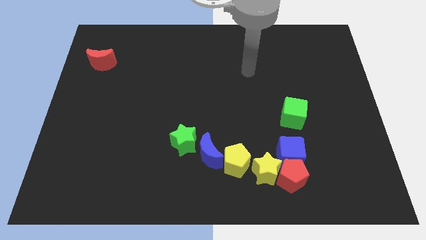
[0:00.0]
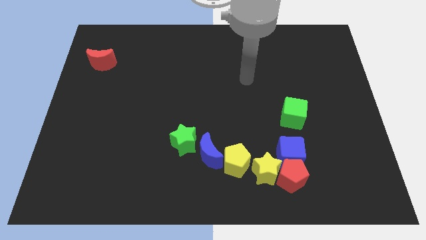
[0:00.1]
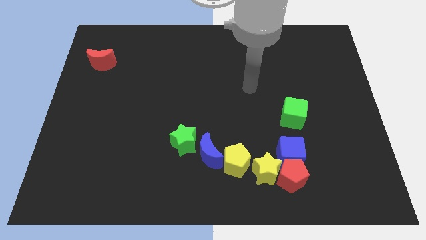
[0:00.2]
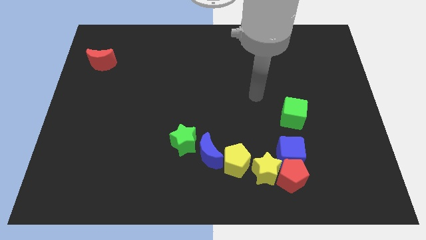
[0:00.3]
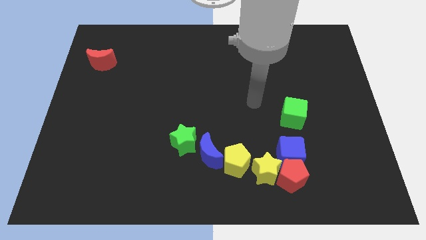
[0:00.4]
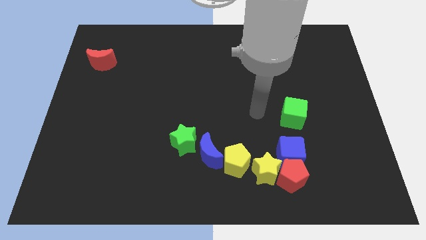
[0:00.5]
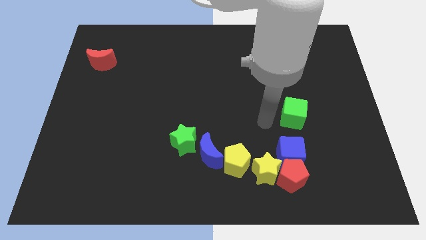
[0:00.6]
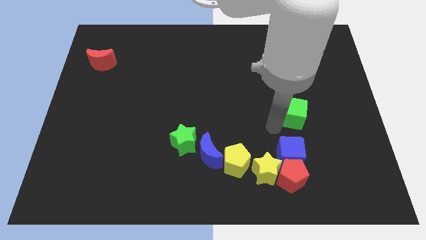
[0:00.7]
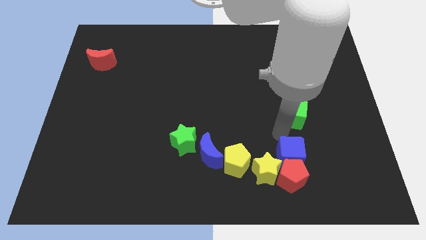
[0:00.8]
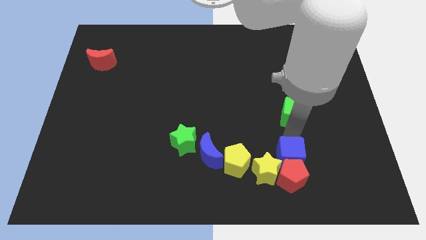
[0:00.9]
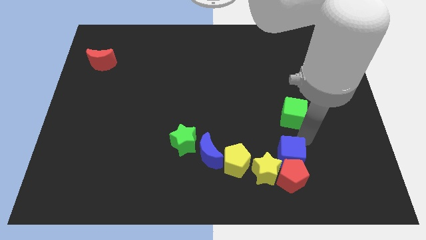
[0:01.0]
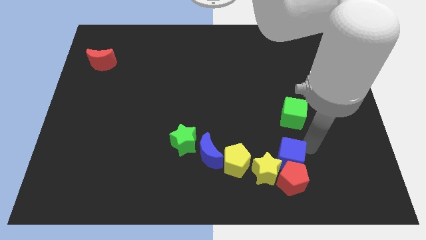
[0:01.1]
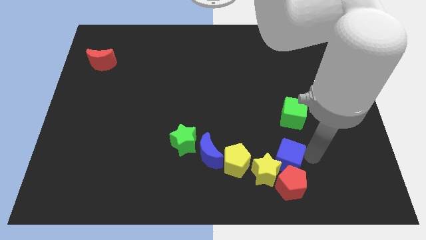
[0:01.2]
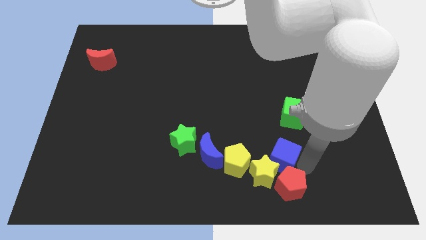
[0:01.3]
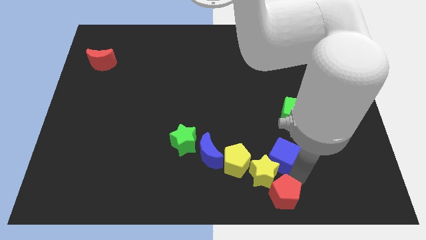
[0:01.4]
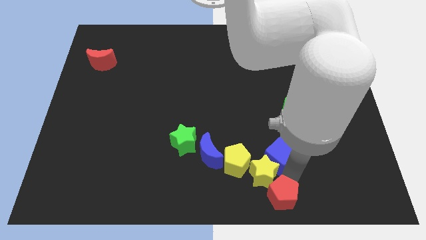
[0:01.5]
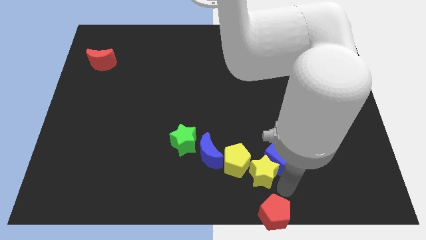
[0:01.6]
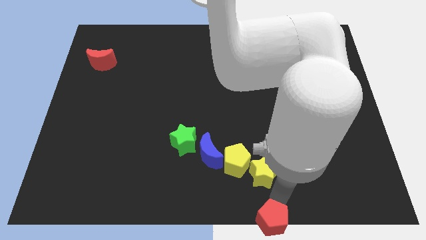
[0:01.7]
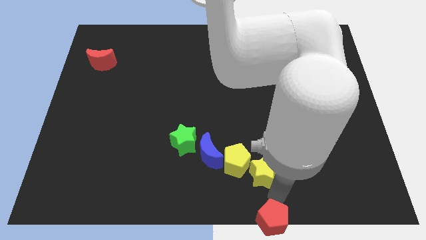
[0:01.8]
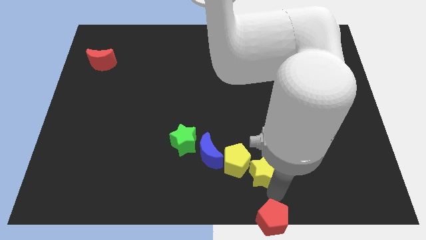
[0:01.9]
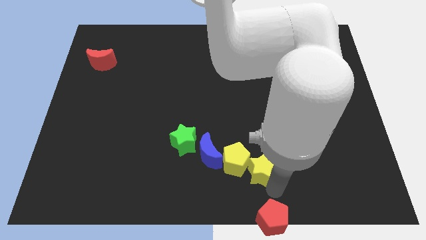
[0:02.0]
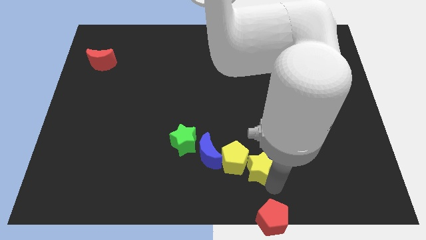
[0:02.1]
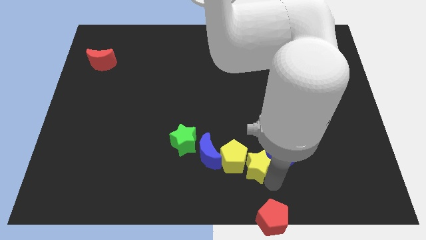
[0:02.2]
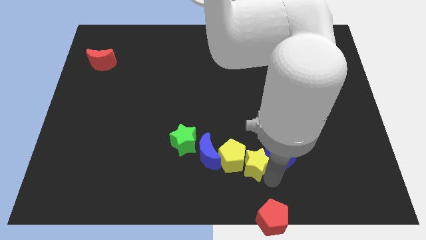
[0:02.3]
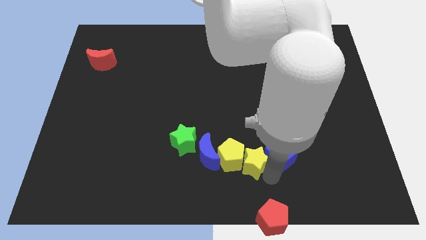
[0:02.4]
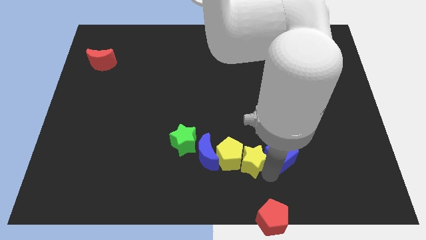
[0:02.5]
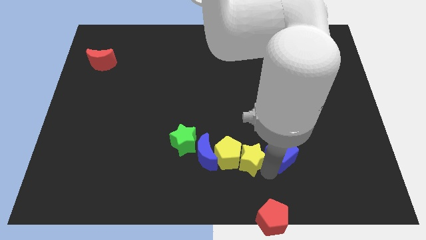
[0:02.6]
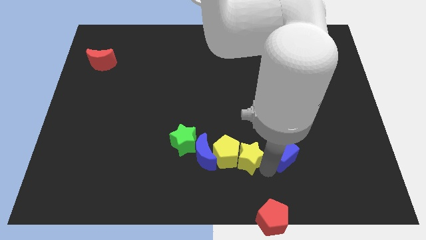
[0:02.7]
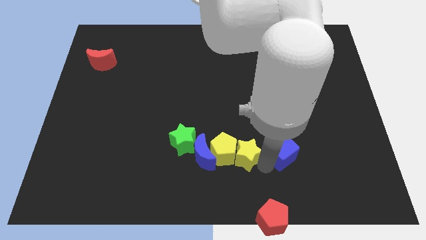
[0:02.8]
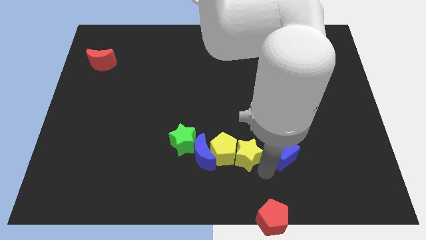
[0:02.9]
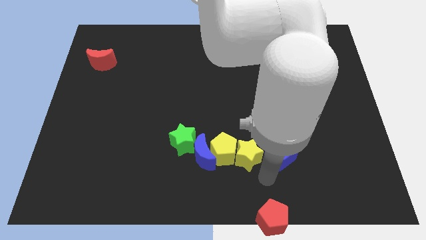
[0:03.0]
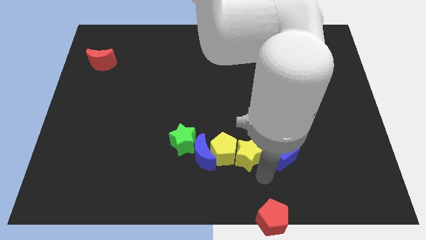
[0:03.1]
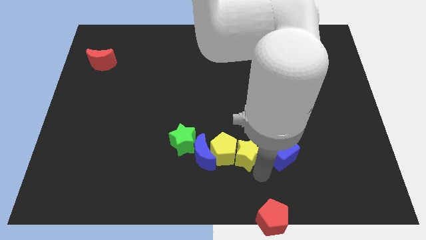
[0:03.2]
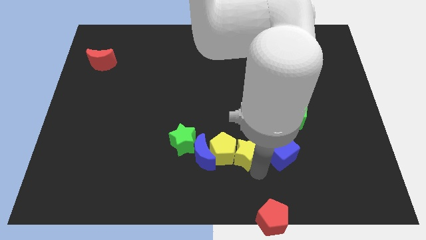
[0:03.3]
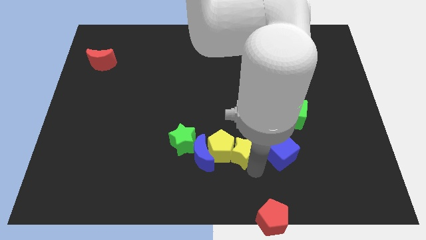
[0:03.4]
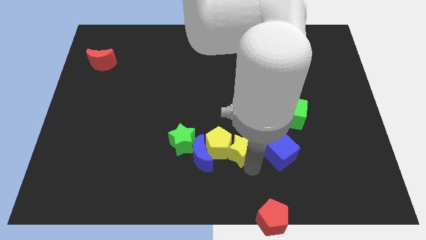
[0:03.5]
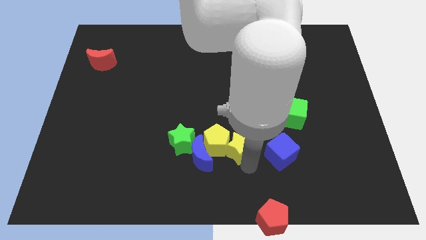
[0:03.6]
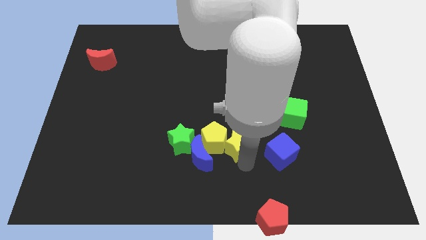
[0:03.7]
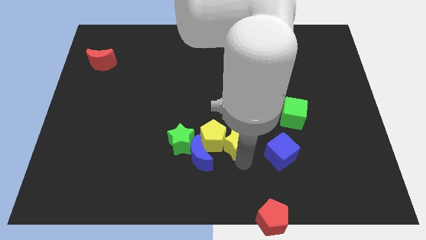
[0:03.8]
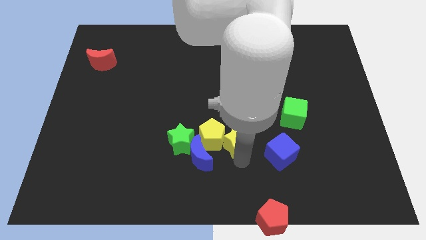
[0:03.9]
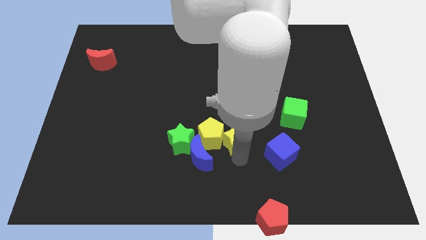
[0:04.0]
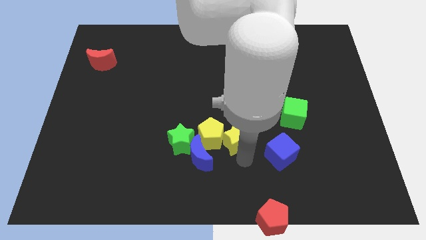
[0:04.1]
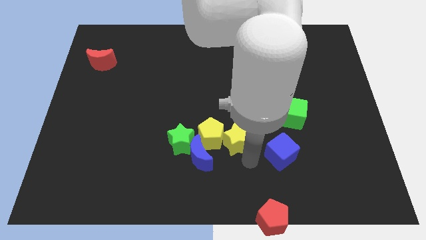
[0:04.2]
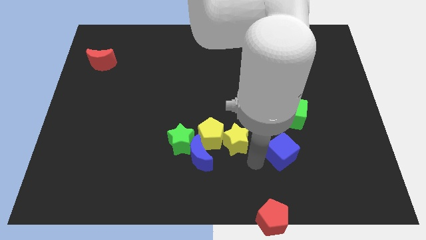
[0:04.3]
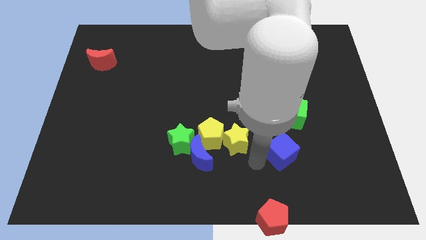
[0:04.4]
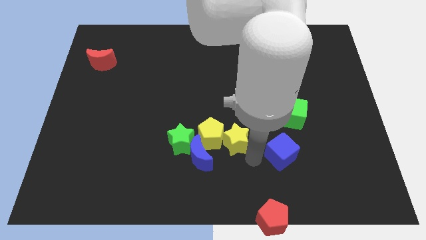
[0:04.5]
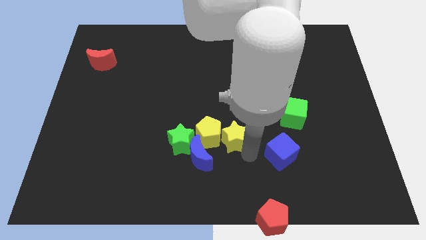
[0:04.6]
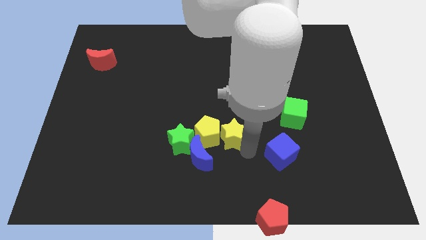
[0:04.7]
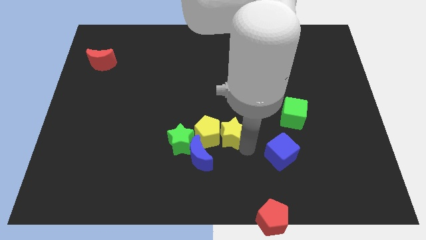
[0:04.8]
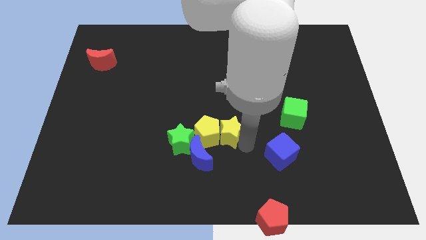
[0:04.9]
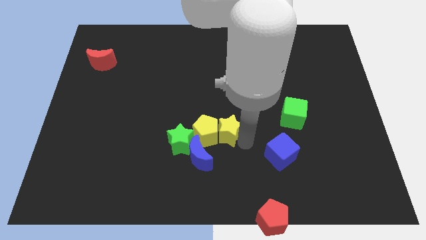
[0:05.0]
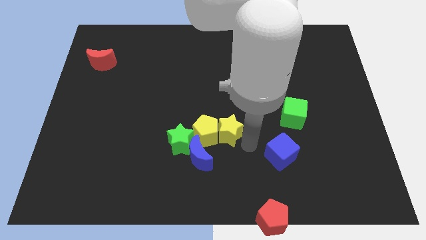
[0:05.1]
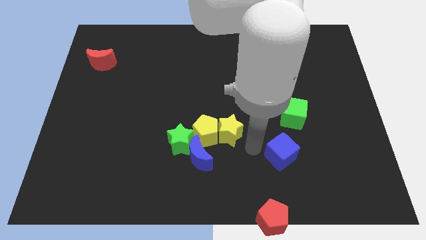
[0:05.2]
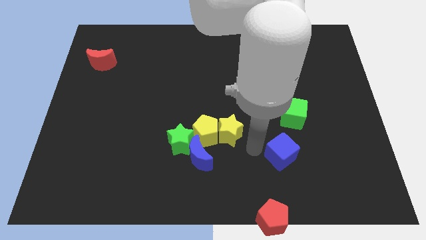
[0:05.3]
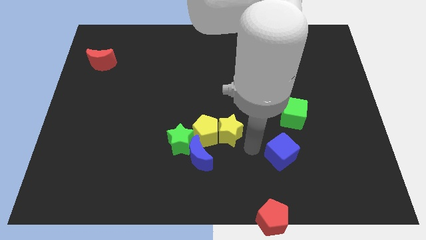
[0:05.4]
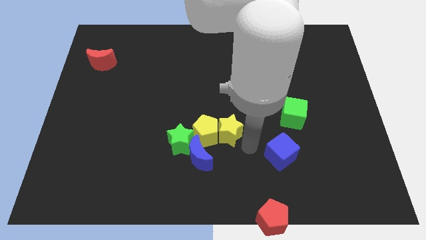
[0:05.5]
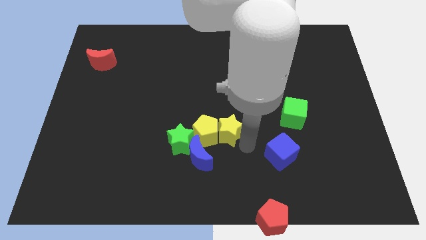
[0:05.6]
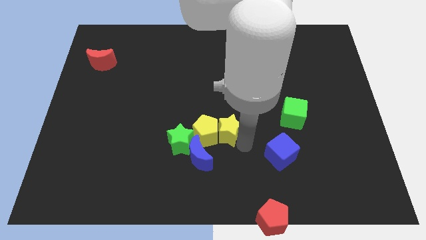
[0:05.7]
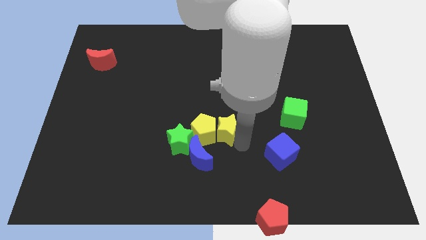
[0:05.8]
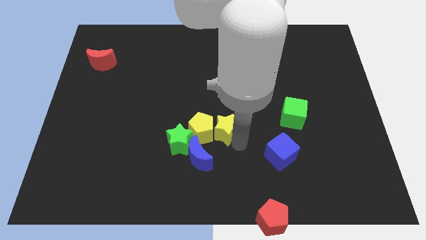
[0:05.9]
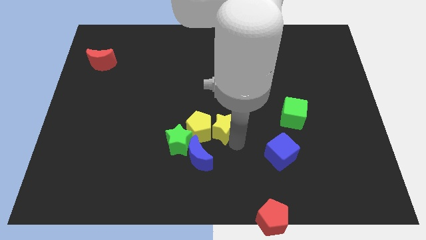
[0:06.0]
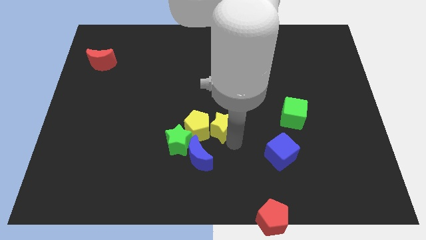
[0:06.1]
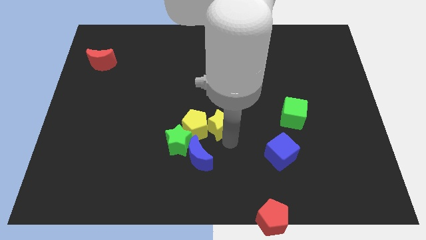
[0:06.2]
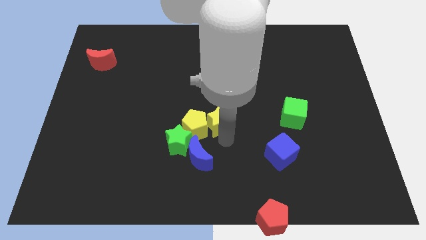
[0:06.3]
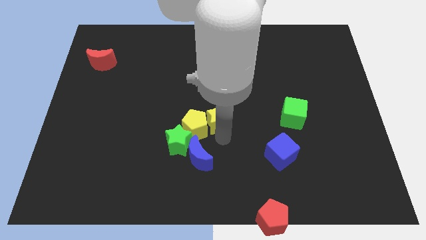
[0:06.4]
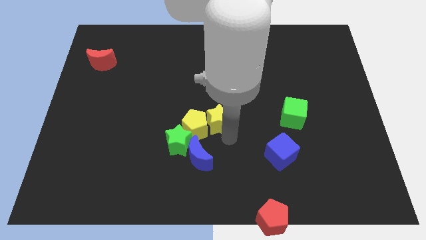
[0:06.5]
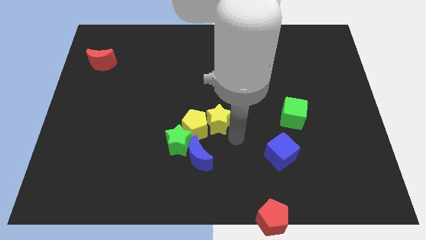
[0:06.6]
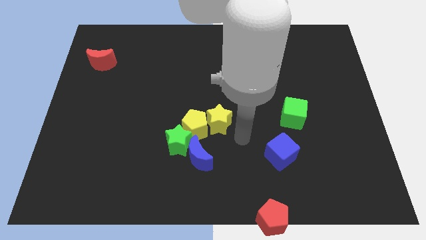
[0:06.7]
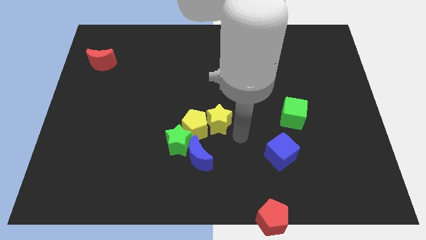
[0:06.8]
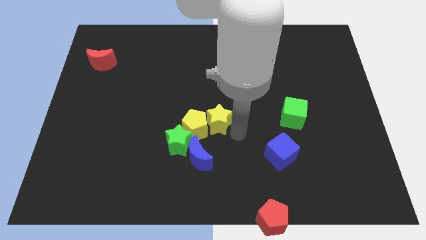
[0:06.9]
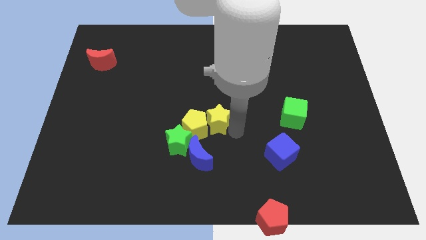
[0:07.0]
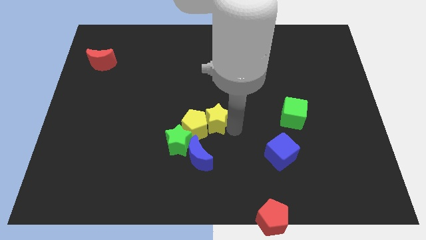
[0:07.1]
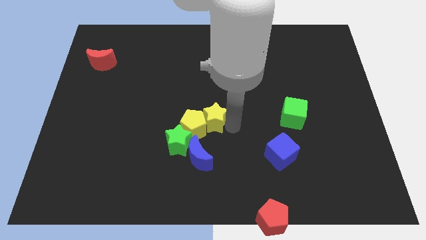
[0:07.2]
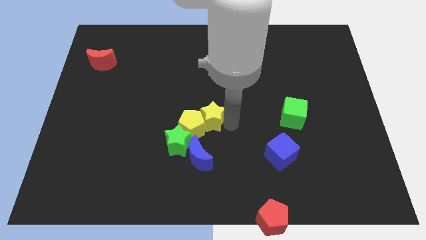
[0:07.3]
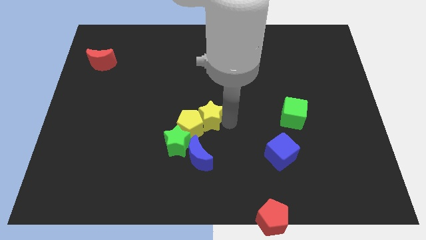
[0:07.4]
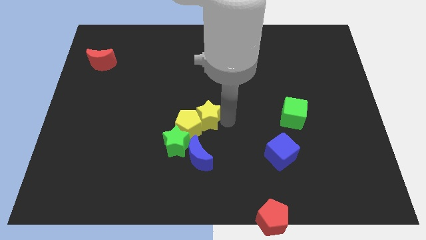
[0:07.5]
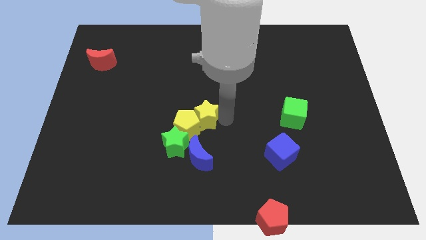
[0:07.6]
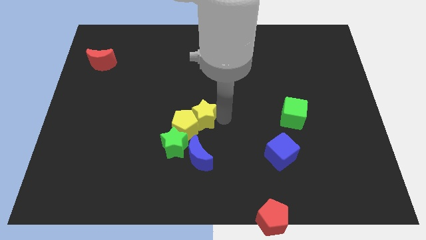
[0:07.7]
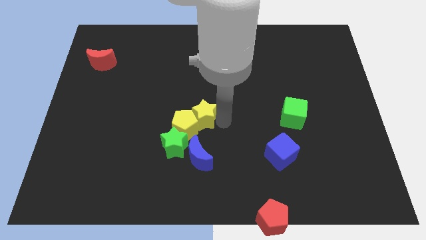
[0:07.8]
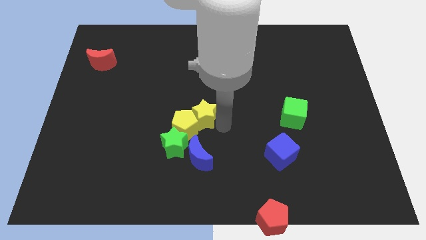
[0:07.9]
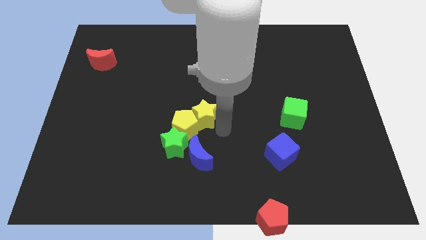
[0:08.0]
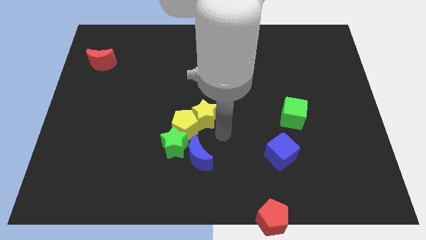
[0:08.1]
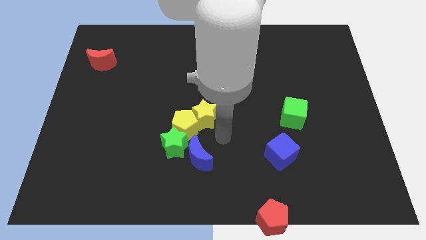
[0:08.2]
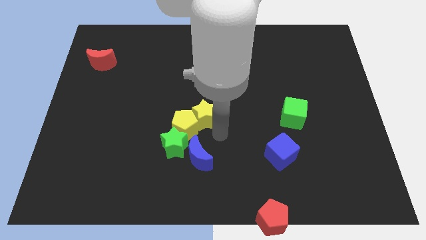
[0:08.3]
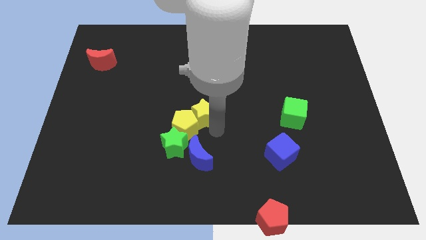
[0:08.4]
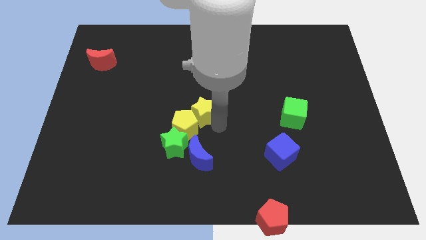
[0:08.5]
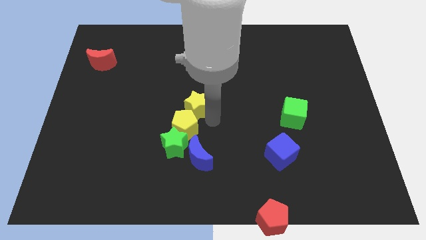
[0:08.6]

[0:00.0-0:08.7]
push the yellow star upwards and to the left diagonally
